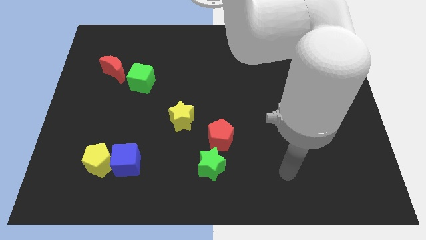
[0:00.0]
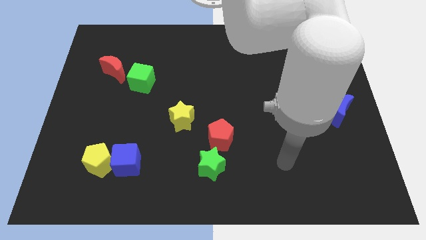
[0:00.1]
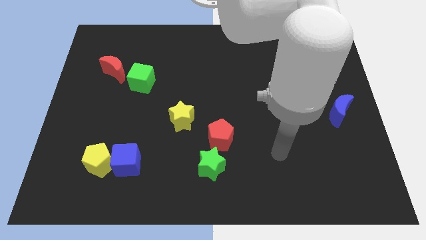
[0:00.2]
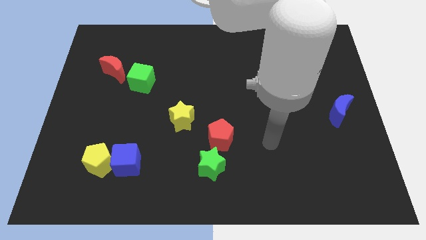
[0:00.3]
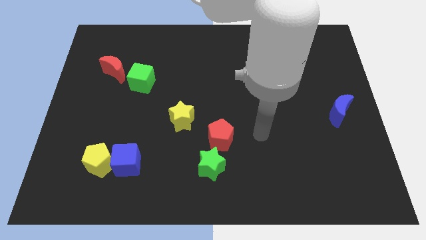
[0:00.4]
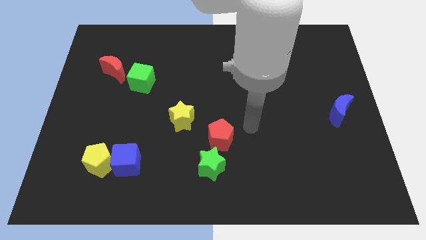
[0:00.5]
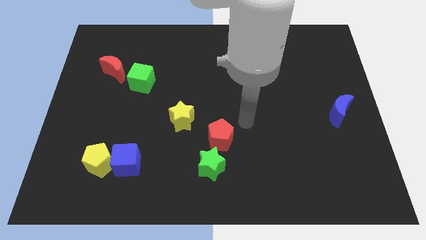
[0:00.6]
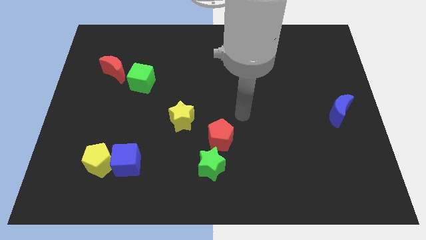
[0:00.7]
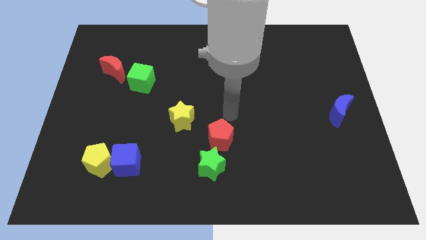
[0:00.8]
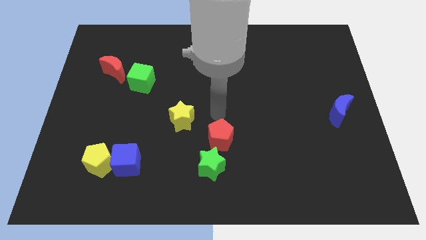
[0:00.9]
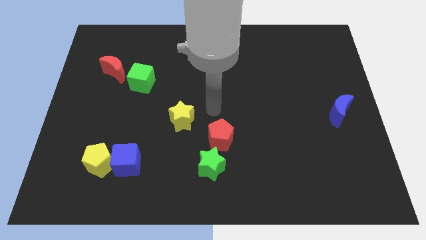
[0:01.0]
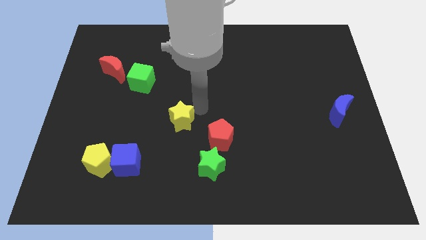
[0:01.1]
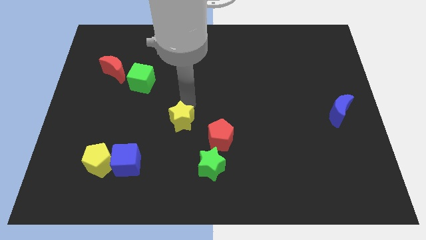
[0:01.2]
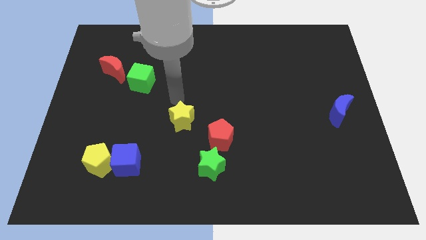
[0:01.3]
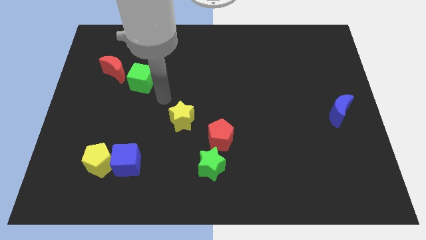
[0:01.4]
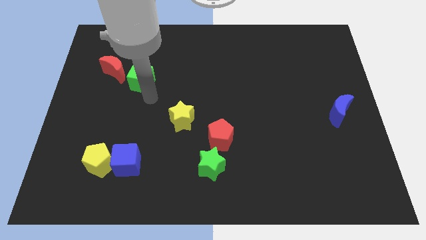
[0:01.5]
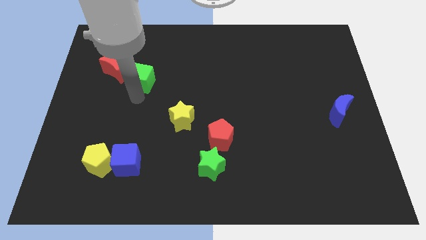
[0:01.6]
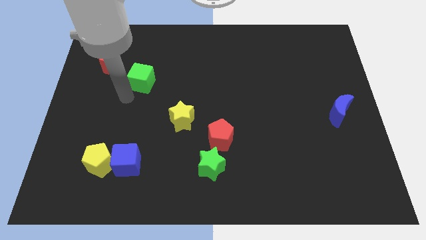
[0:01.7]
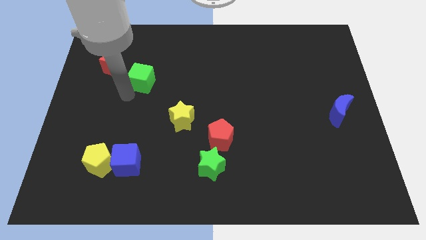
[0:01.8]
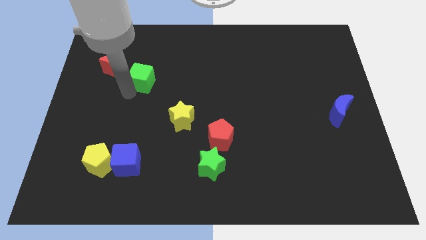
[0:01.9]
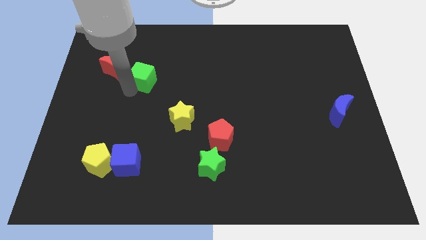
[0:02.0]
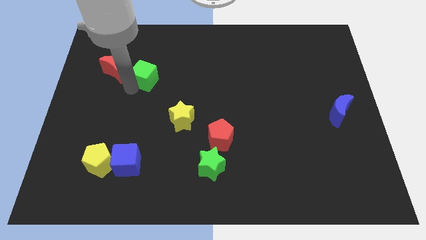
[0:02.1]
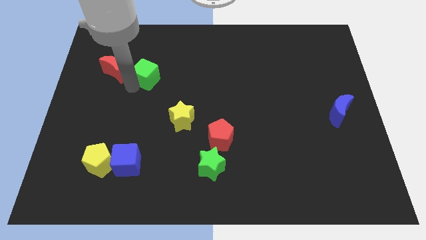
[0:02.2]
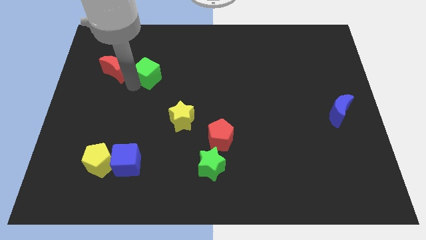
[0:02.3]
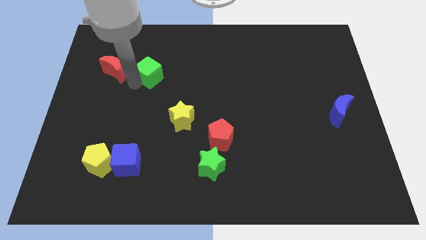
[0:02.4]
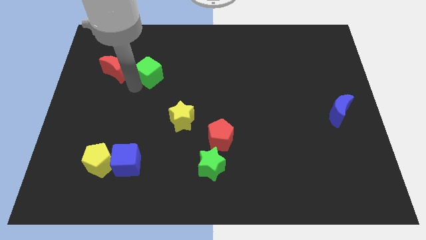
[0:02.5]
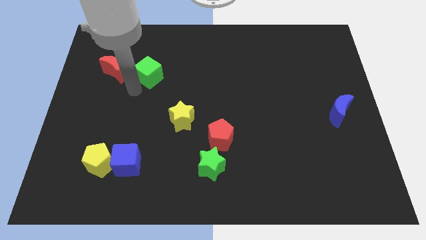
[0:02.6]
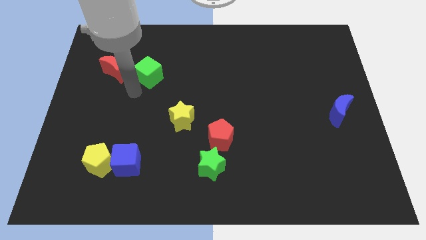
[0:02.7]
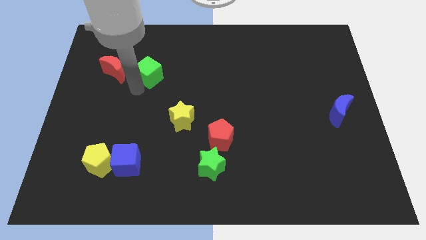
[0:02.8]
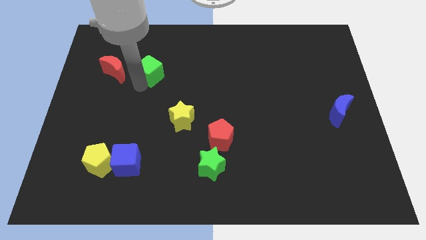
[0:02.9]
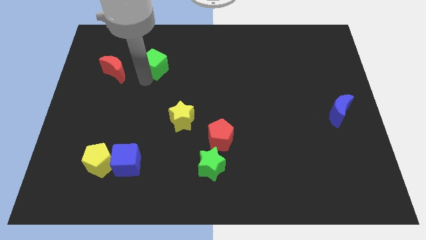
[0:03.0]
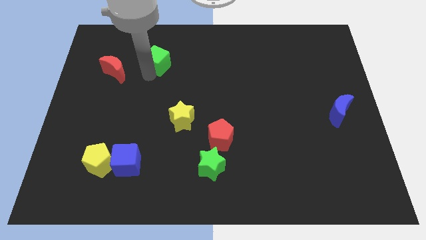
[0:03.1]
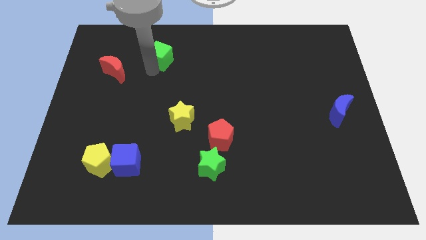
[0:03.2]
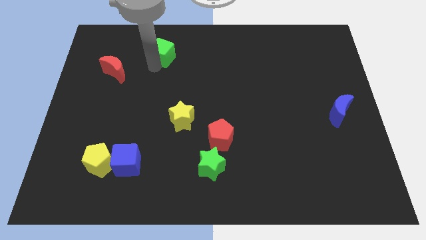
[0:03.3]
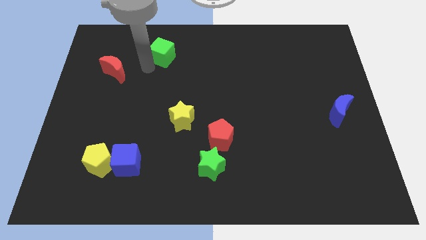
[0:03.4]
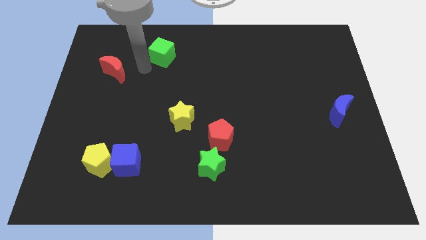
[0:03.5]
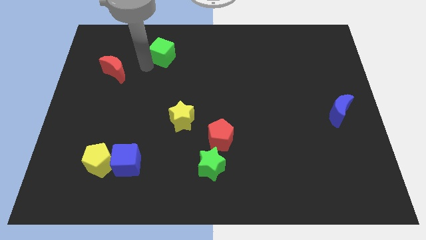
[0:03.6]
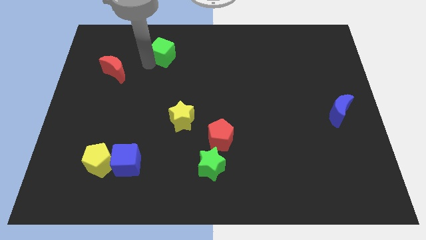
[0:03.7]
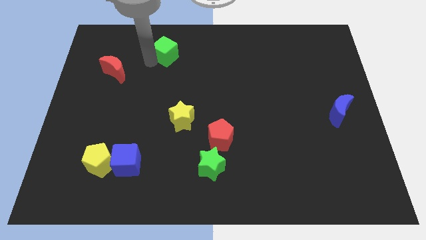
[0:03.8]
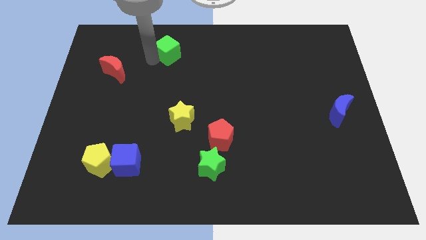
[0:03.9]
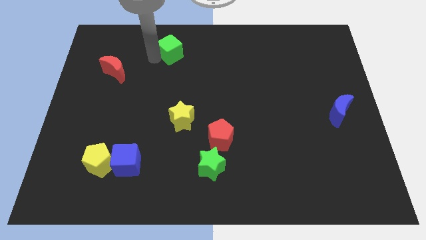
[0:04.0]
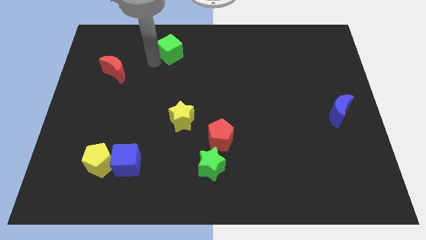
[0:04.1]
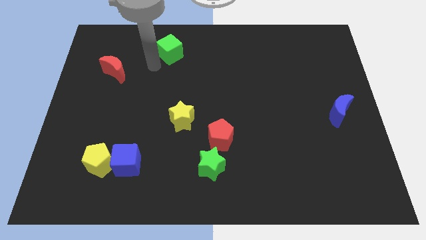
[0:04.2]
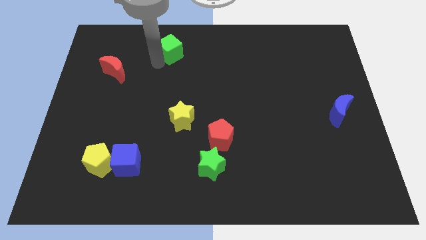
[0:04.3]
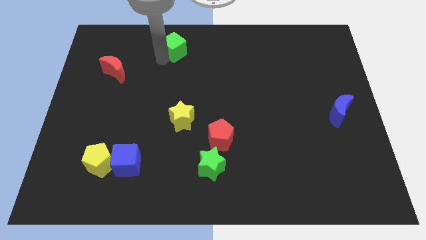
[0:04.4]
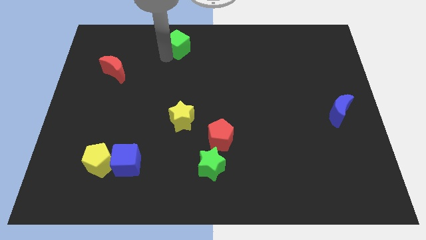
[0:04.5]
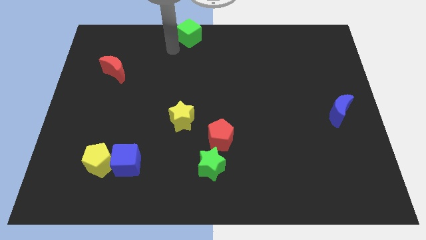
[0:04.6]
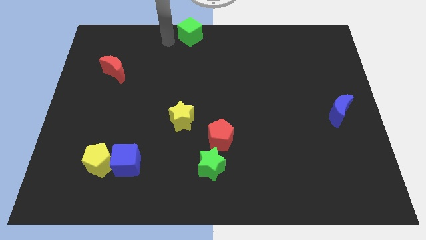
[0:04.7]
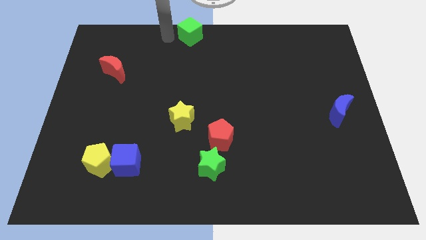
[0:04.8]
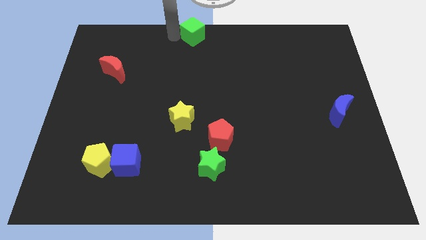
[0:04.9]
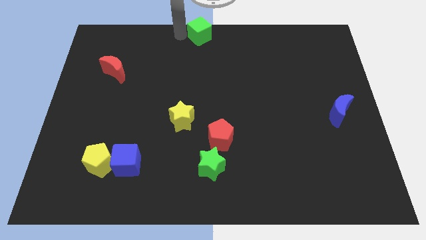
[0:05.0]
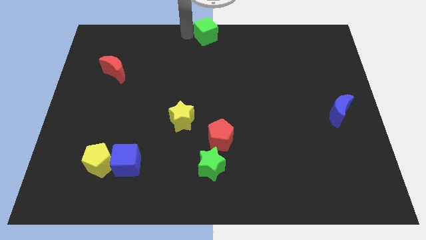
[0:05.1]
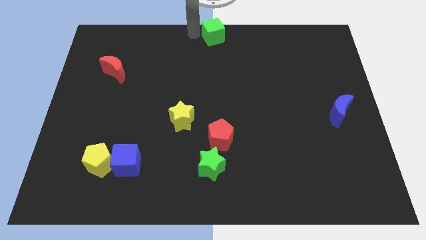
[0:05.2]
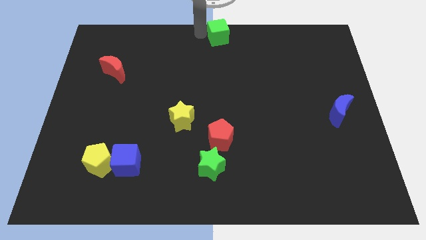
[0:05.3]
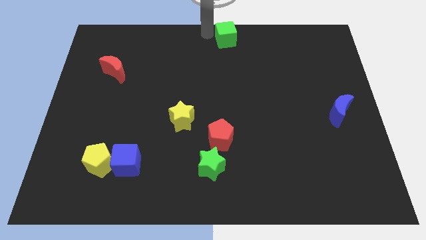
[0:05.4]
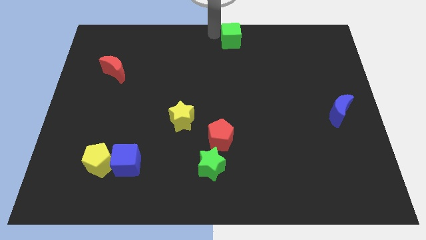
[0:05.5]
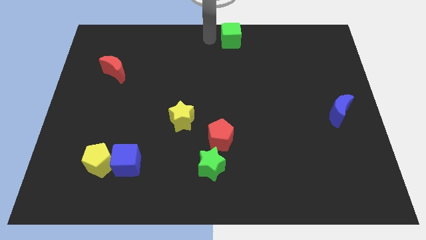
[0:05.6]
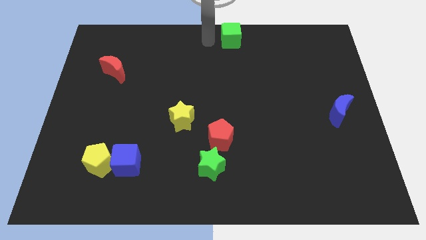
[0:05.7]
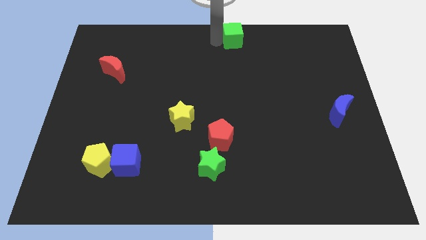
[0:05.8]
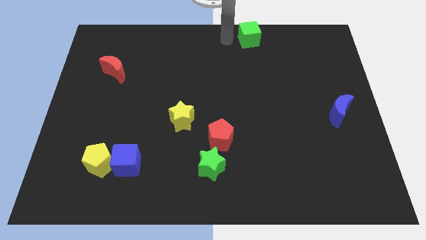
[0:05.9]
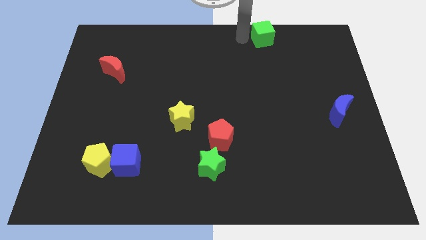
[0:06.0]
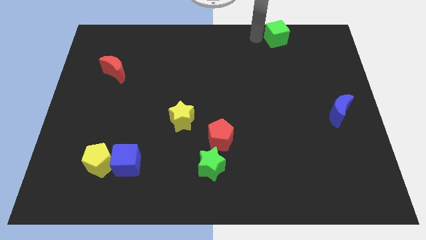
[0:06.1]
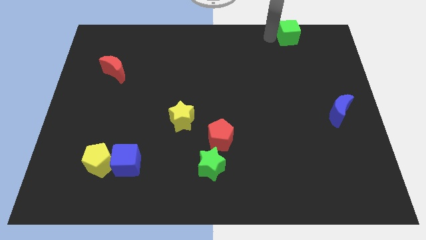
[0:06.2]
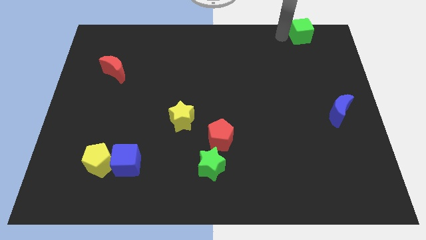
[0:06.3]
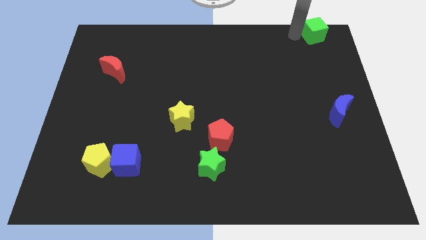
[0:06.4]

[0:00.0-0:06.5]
slide the green cube to the top right

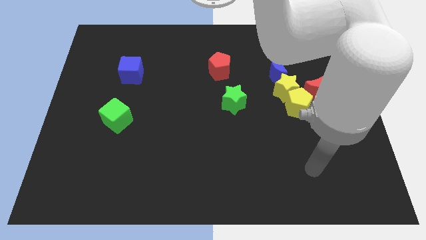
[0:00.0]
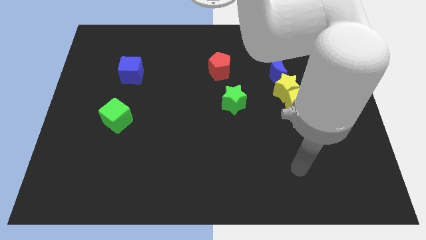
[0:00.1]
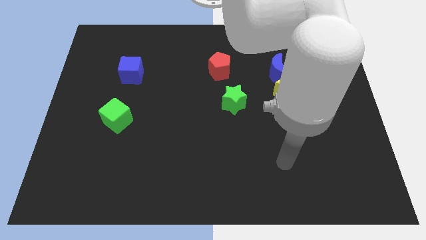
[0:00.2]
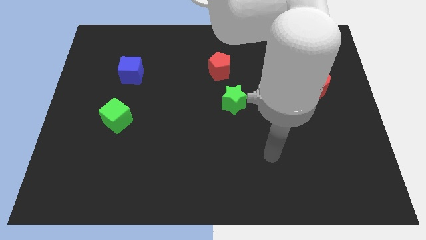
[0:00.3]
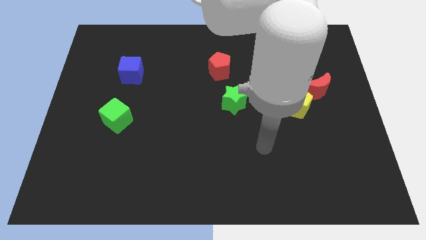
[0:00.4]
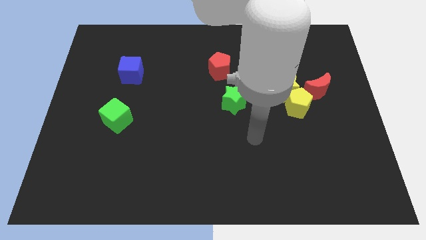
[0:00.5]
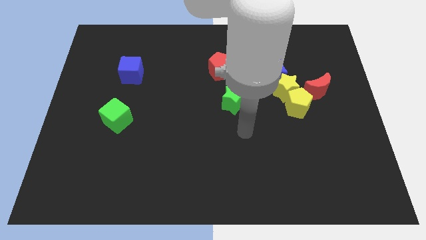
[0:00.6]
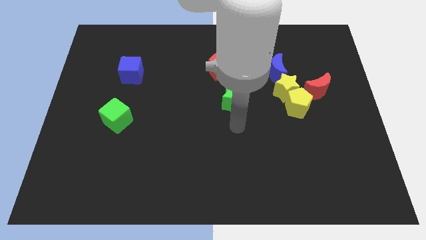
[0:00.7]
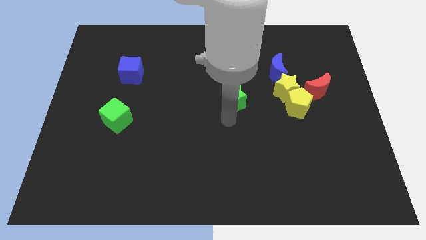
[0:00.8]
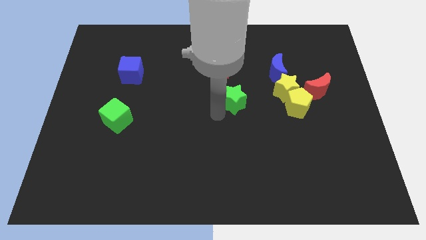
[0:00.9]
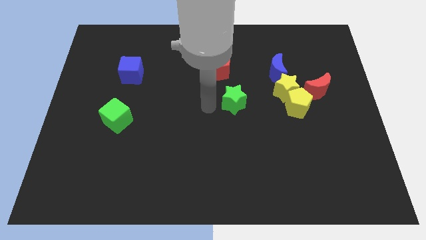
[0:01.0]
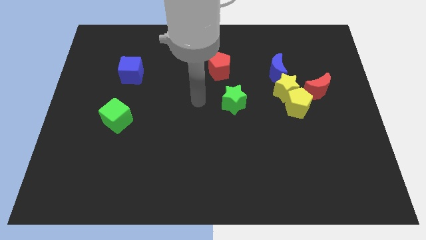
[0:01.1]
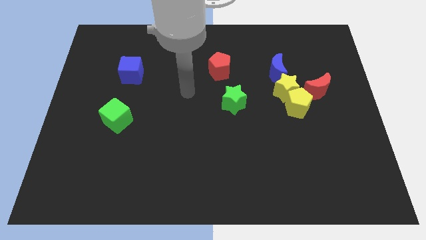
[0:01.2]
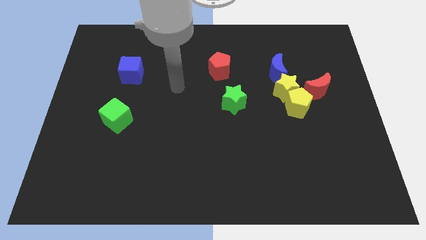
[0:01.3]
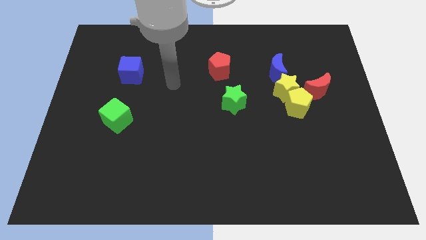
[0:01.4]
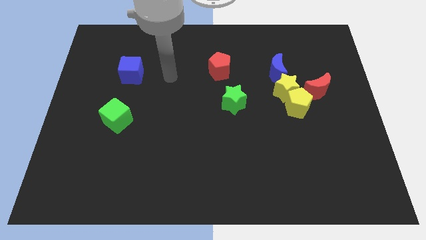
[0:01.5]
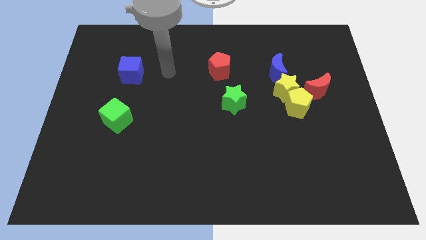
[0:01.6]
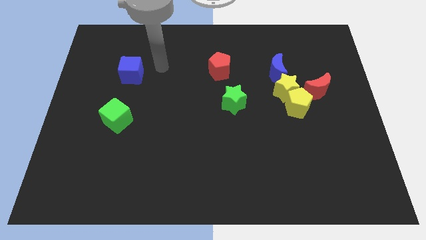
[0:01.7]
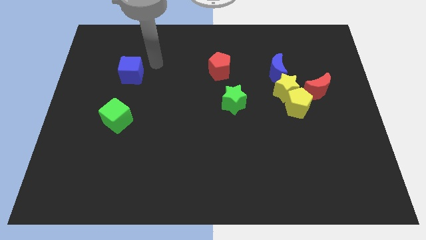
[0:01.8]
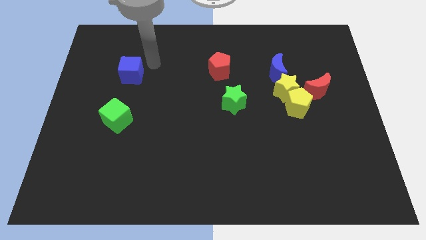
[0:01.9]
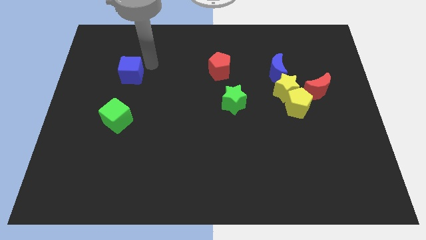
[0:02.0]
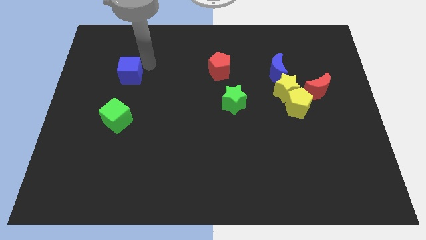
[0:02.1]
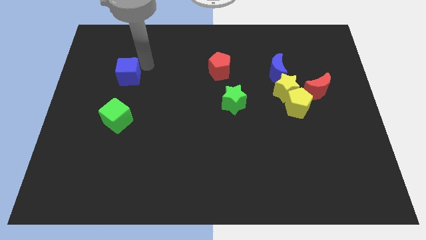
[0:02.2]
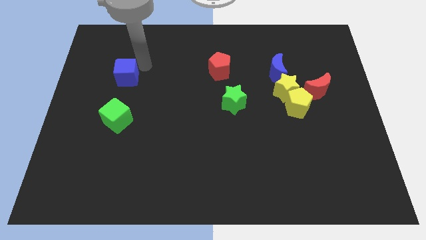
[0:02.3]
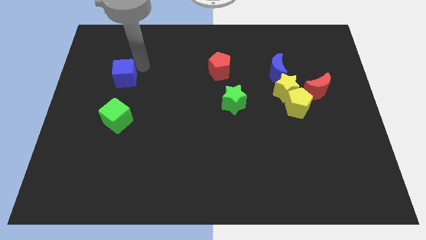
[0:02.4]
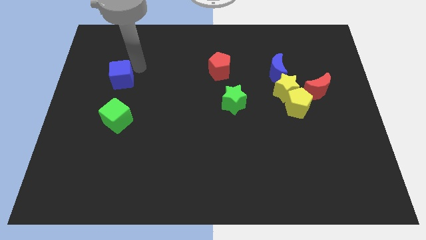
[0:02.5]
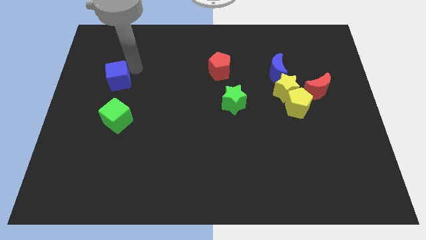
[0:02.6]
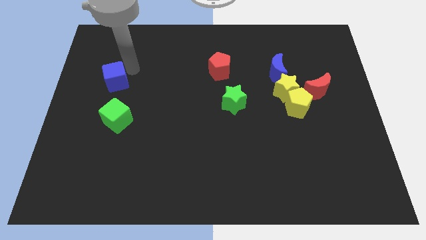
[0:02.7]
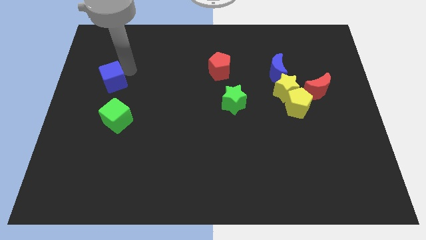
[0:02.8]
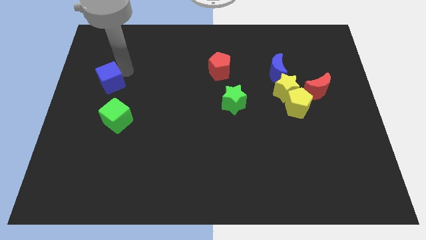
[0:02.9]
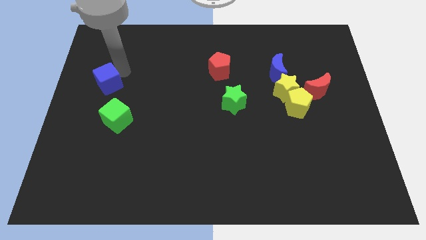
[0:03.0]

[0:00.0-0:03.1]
push the blue cube to the center left
